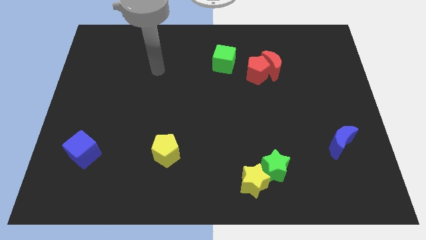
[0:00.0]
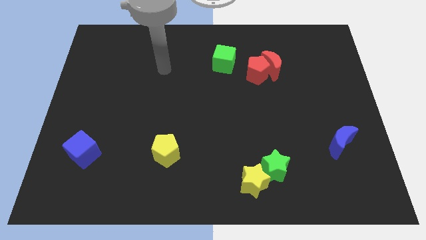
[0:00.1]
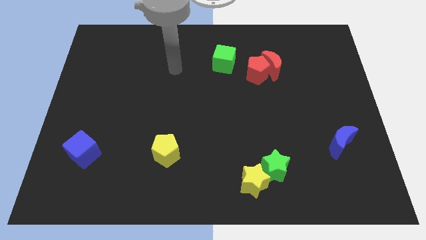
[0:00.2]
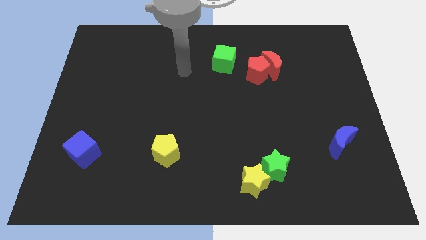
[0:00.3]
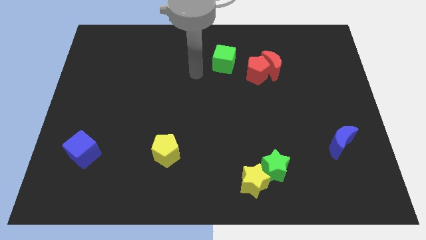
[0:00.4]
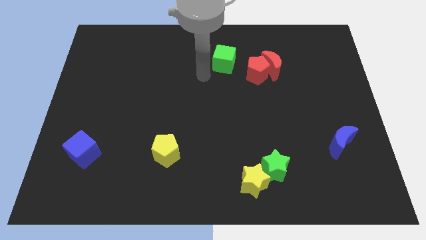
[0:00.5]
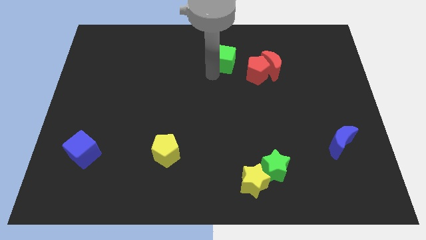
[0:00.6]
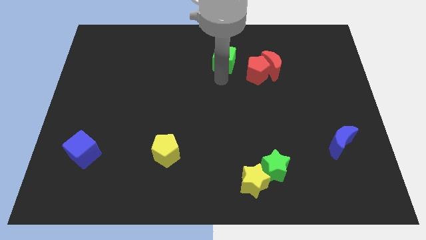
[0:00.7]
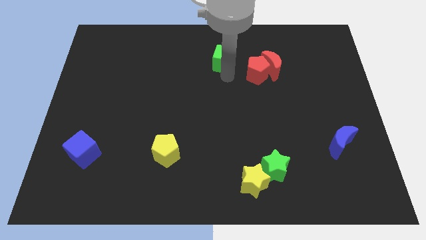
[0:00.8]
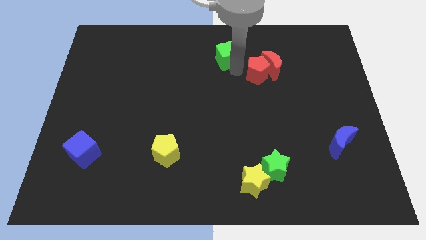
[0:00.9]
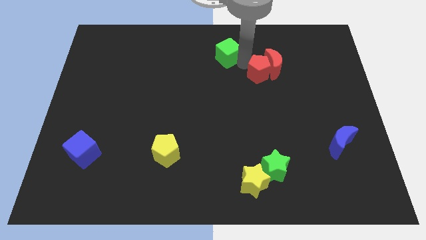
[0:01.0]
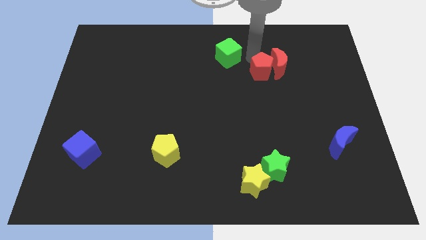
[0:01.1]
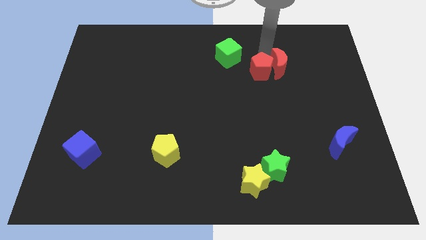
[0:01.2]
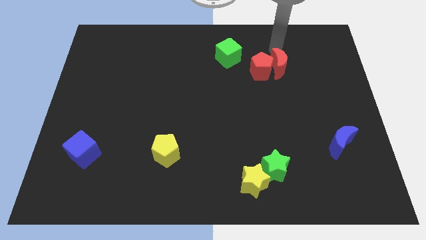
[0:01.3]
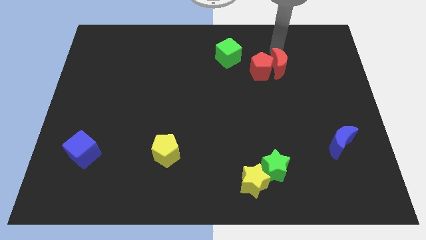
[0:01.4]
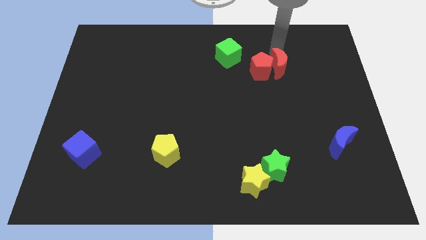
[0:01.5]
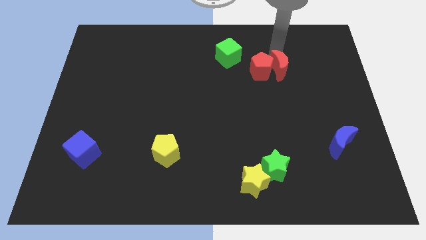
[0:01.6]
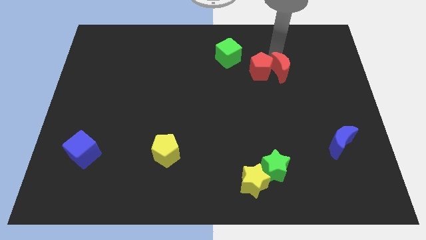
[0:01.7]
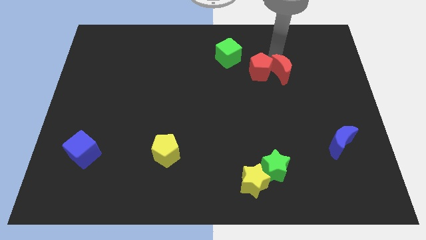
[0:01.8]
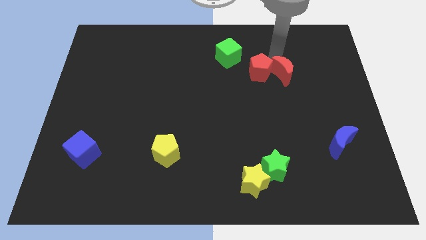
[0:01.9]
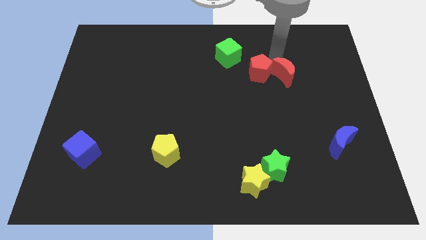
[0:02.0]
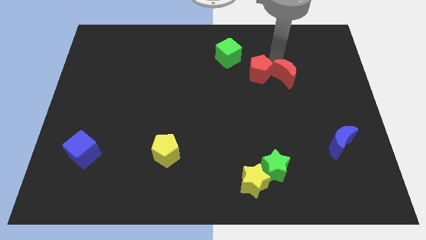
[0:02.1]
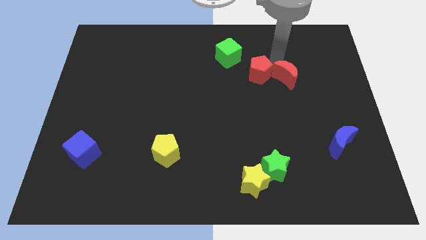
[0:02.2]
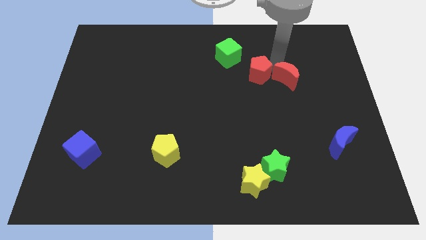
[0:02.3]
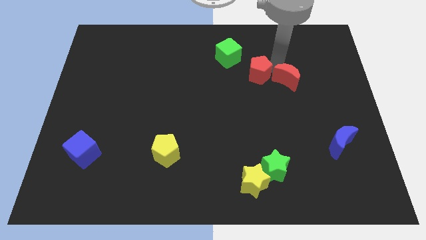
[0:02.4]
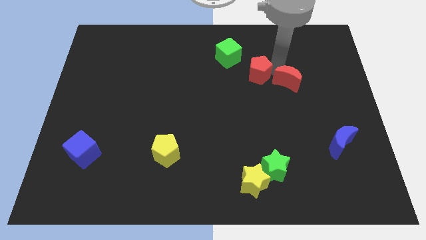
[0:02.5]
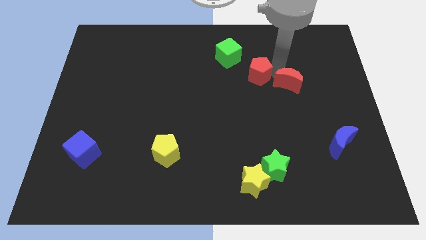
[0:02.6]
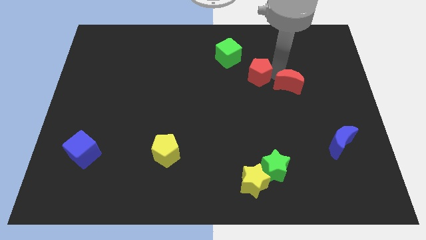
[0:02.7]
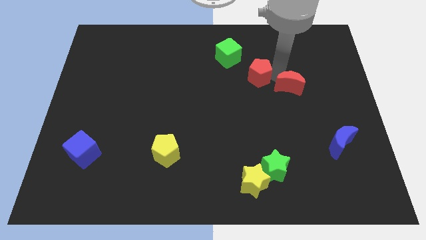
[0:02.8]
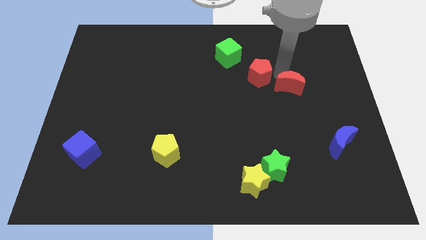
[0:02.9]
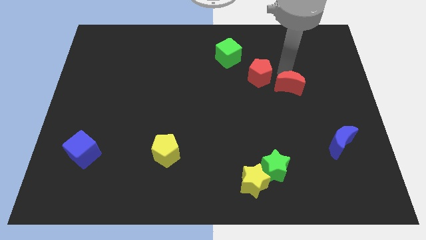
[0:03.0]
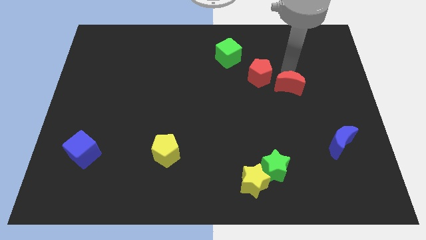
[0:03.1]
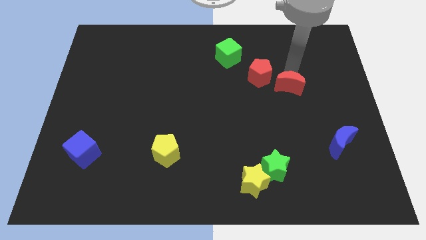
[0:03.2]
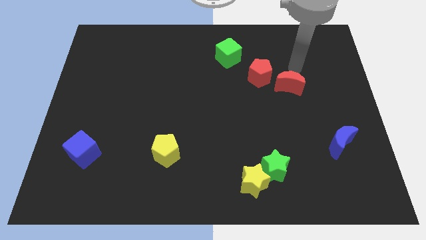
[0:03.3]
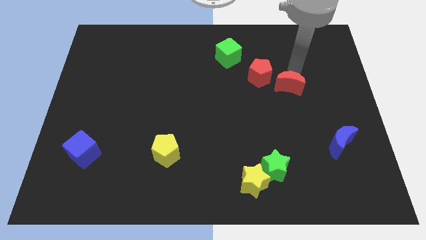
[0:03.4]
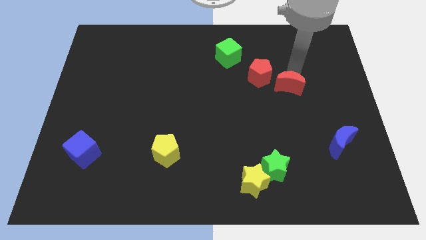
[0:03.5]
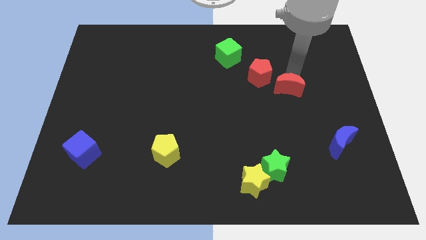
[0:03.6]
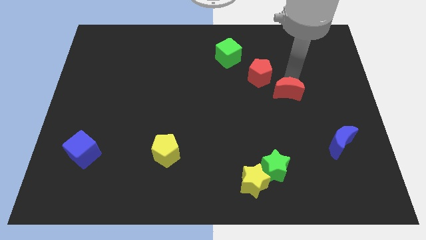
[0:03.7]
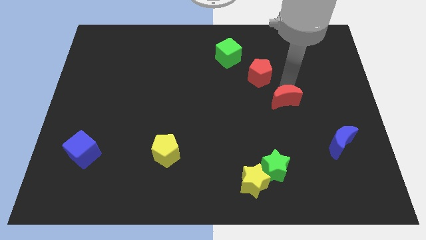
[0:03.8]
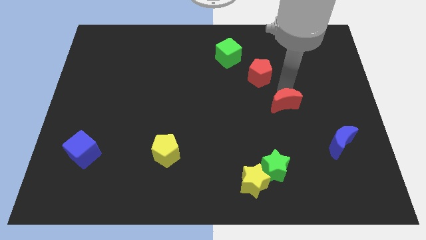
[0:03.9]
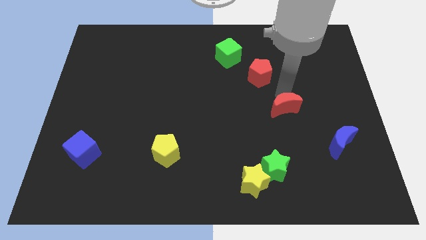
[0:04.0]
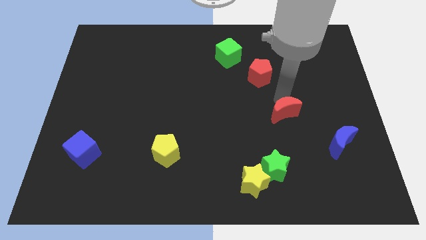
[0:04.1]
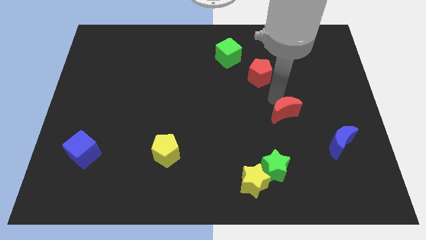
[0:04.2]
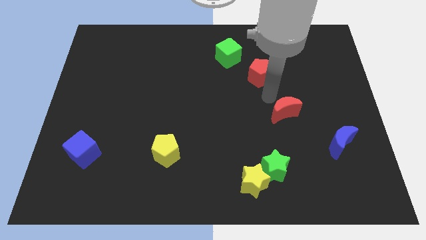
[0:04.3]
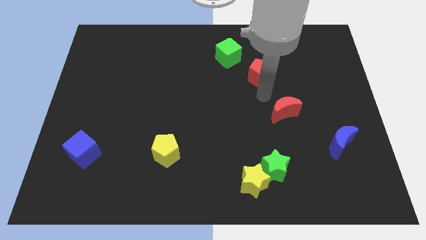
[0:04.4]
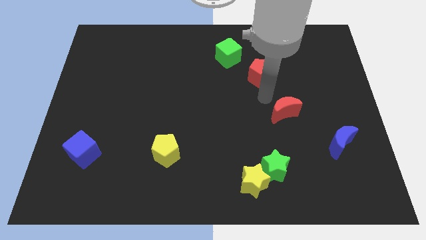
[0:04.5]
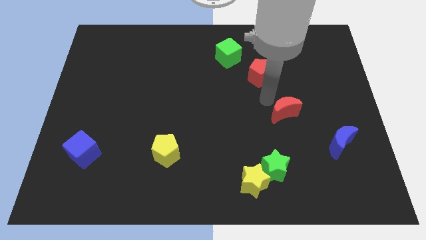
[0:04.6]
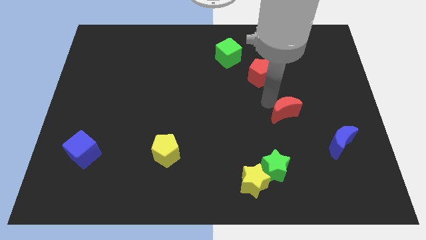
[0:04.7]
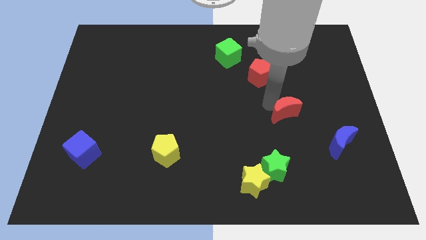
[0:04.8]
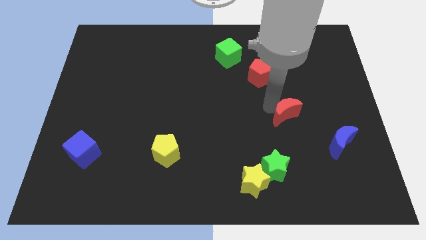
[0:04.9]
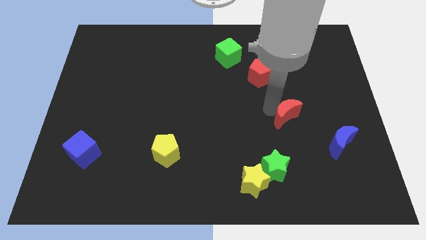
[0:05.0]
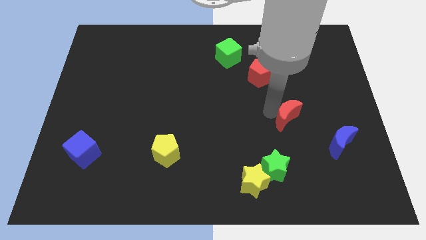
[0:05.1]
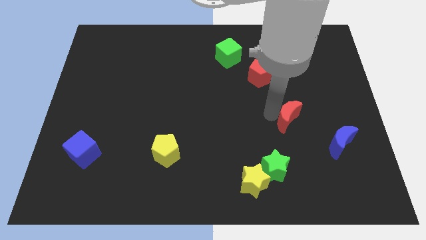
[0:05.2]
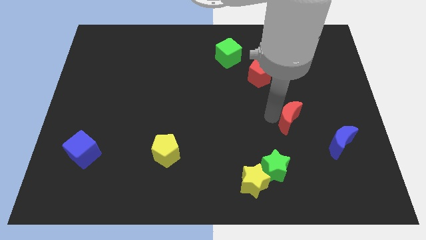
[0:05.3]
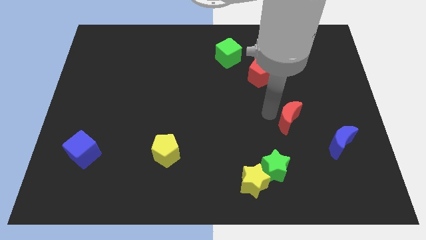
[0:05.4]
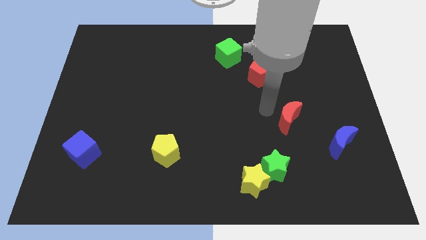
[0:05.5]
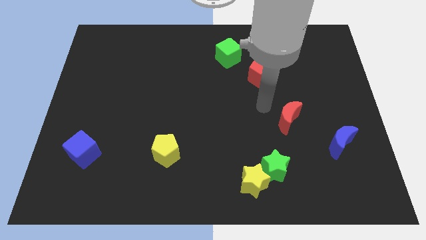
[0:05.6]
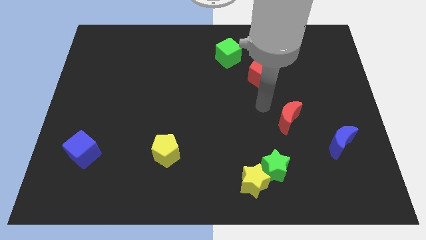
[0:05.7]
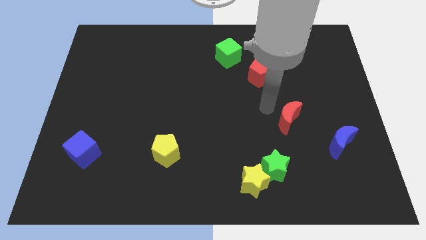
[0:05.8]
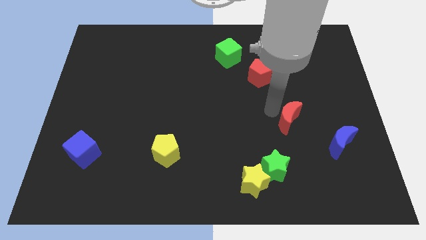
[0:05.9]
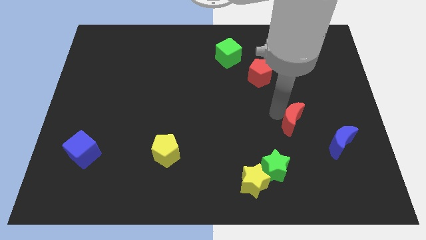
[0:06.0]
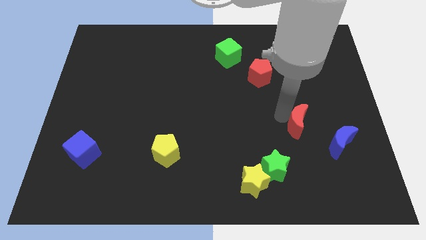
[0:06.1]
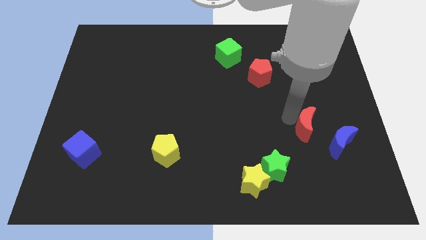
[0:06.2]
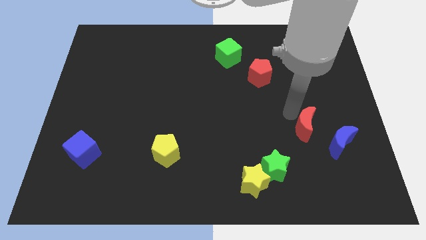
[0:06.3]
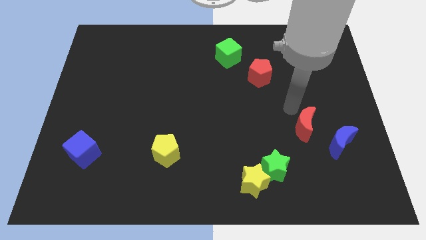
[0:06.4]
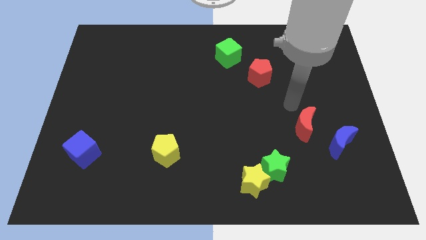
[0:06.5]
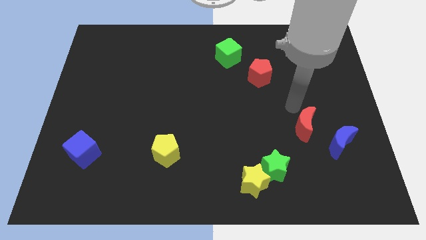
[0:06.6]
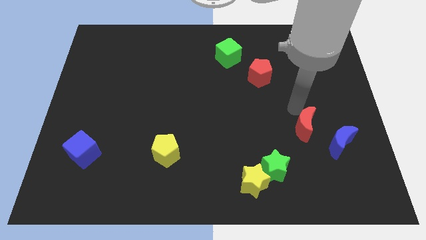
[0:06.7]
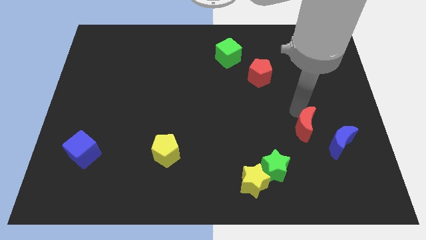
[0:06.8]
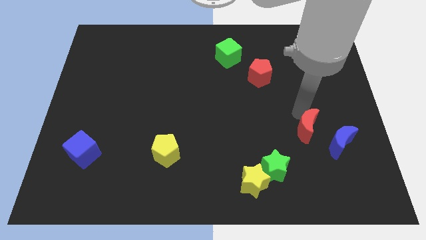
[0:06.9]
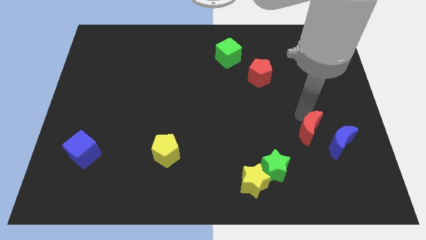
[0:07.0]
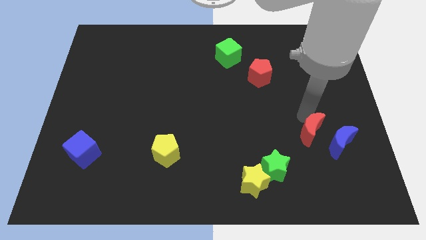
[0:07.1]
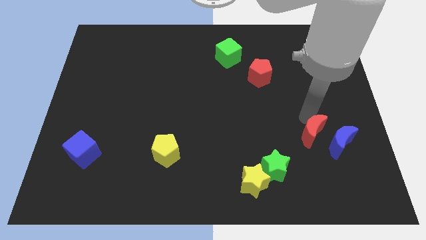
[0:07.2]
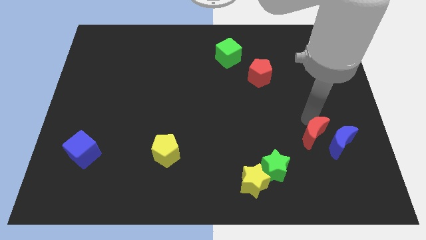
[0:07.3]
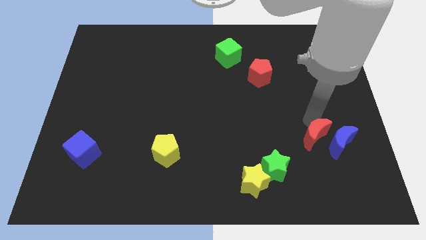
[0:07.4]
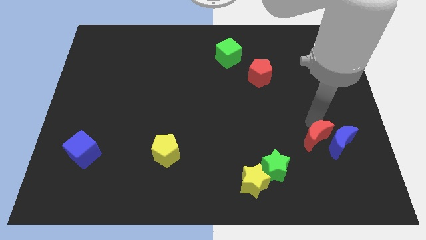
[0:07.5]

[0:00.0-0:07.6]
move the red moon to the bottom left of the blue moon
